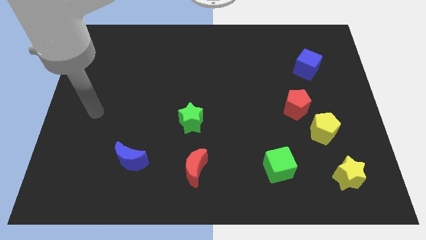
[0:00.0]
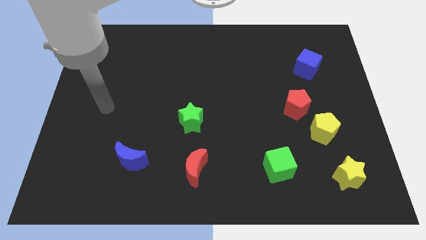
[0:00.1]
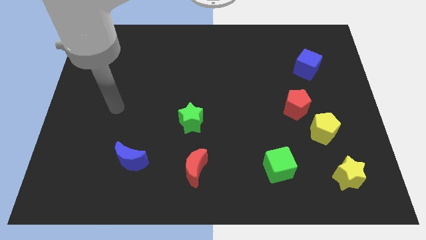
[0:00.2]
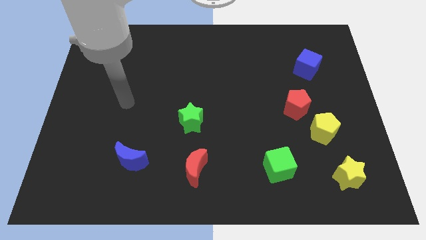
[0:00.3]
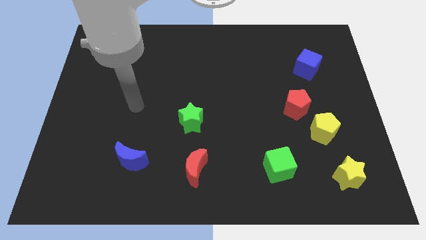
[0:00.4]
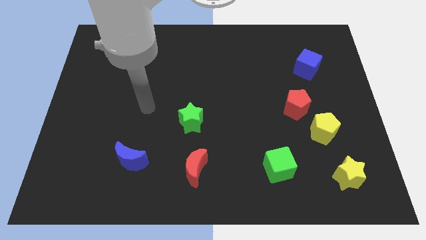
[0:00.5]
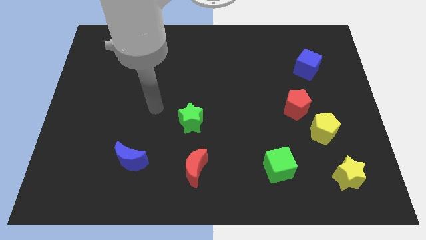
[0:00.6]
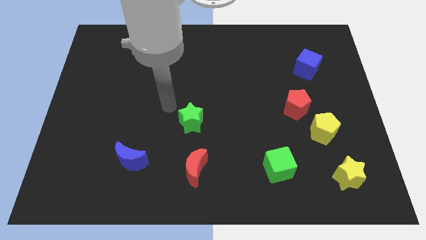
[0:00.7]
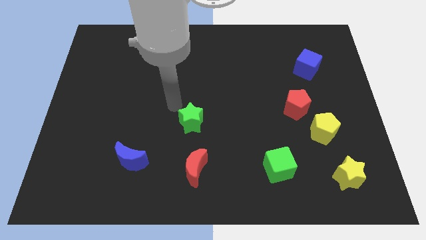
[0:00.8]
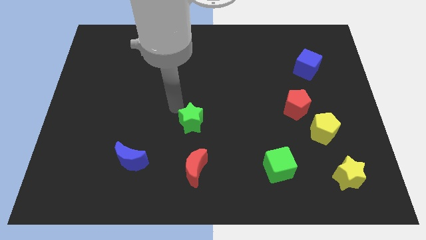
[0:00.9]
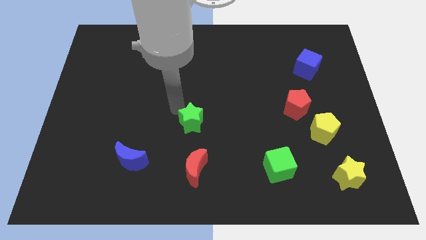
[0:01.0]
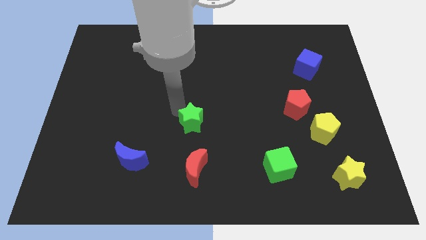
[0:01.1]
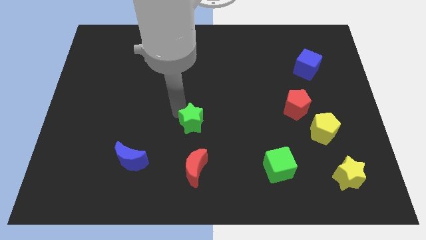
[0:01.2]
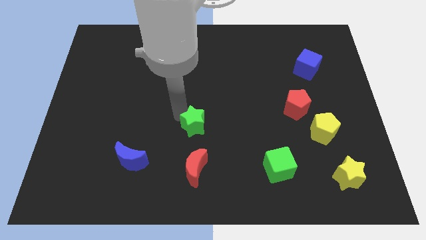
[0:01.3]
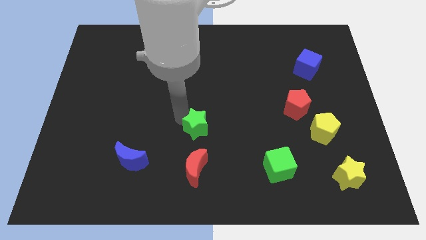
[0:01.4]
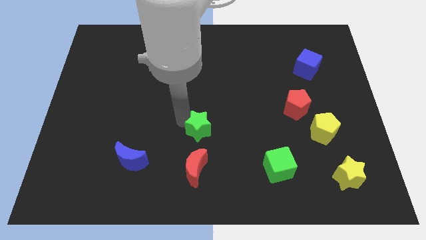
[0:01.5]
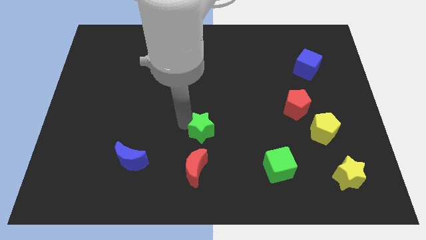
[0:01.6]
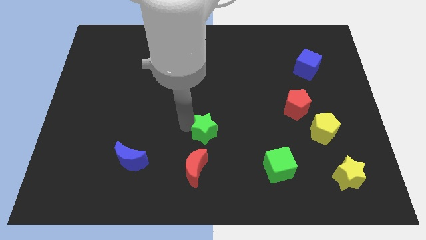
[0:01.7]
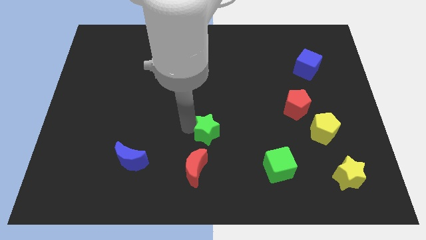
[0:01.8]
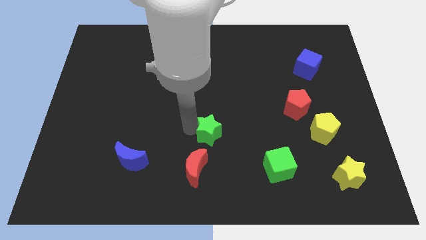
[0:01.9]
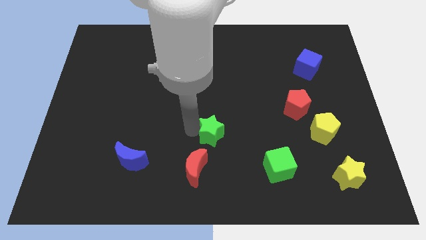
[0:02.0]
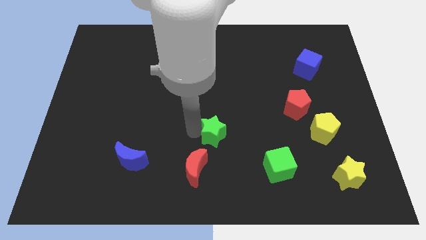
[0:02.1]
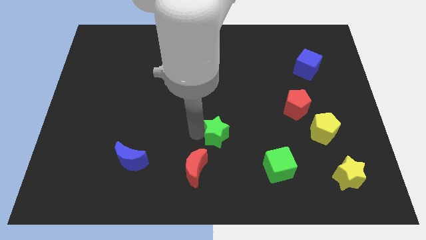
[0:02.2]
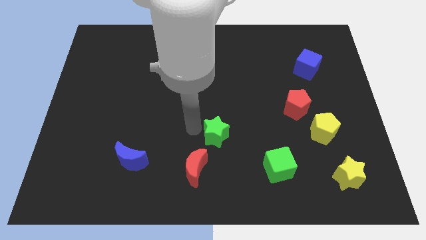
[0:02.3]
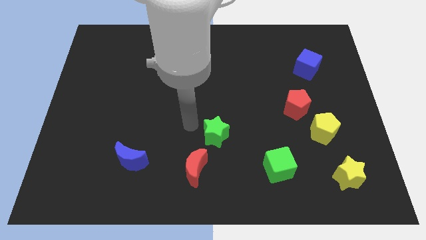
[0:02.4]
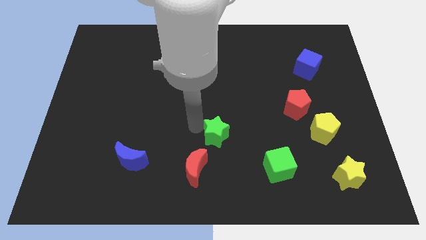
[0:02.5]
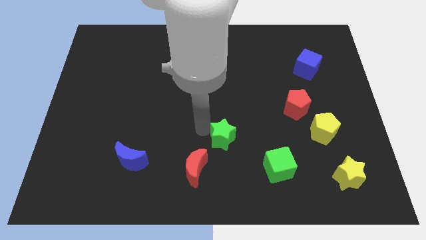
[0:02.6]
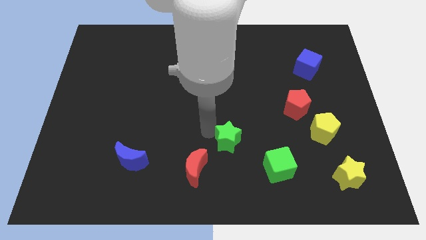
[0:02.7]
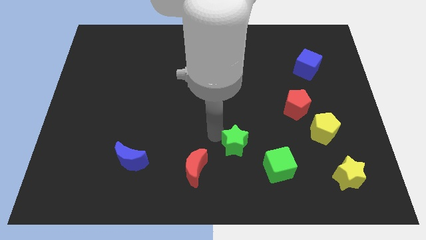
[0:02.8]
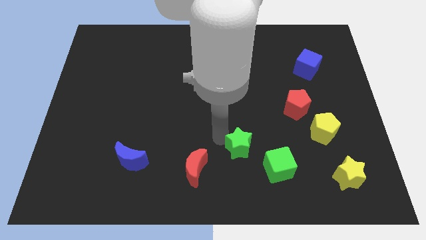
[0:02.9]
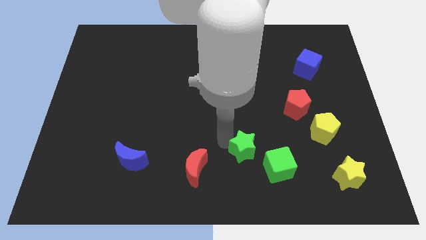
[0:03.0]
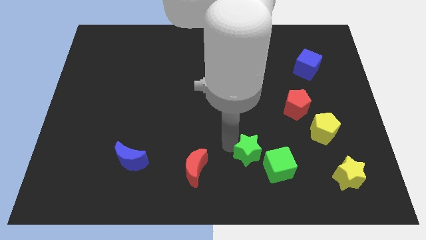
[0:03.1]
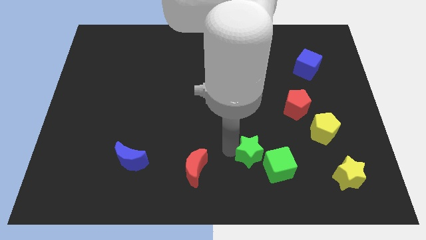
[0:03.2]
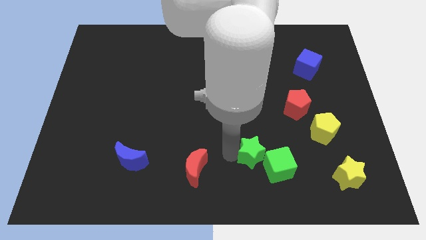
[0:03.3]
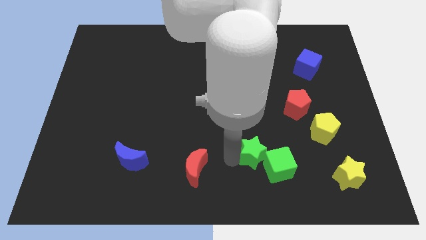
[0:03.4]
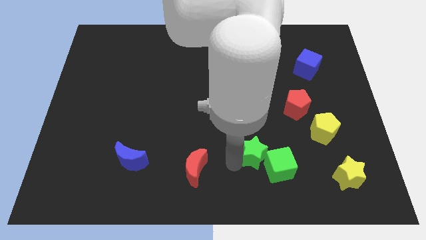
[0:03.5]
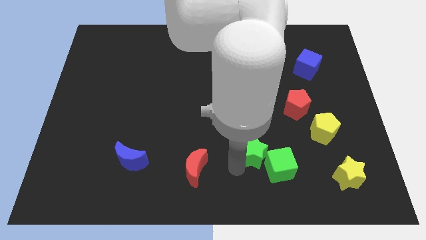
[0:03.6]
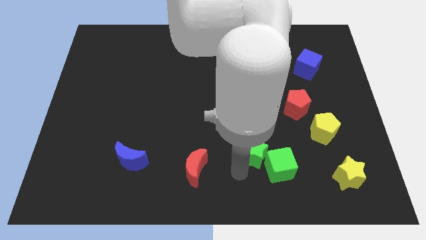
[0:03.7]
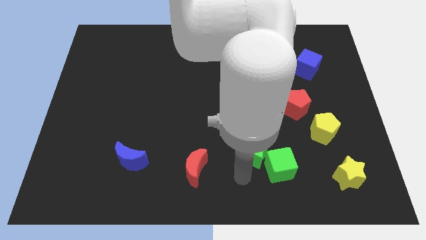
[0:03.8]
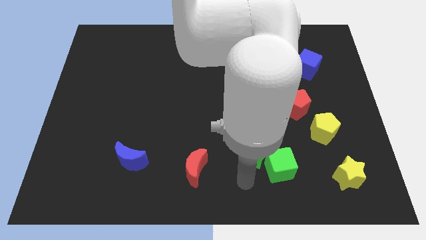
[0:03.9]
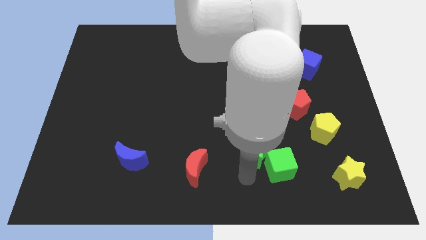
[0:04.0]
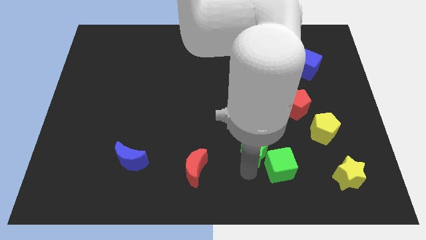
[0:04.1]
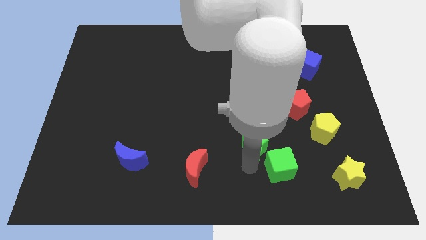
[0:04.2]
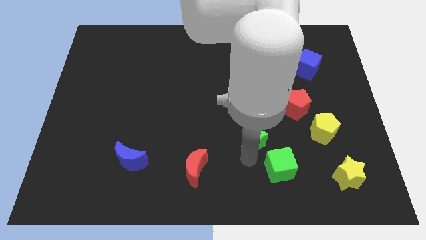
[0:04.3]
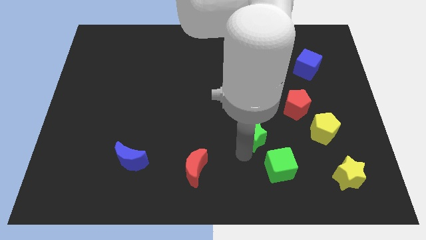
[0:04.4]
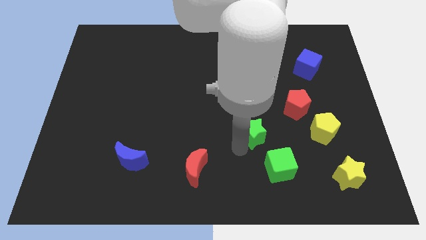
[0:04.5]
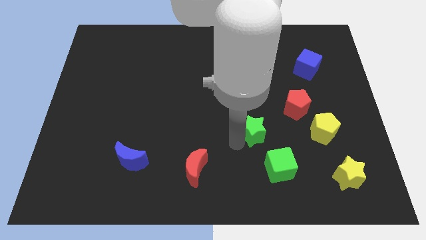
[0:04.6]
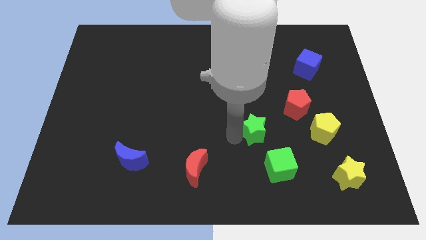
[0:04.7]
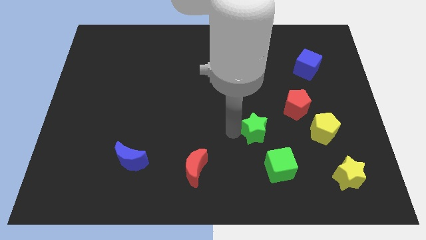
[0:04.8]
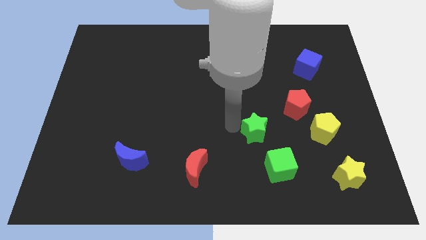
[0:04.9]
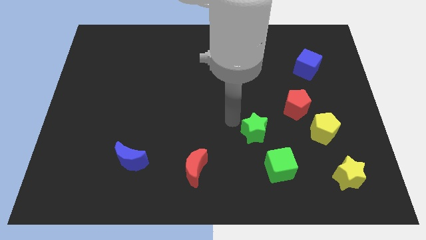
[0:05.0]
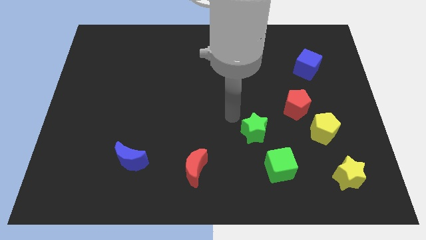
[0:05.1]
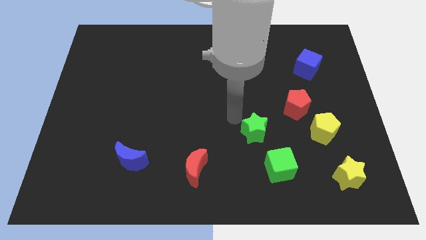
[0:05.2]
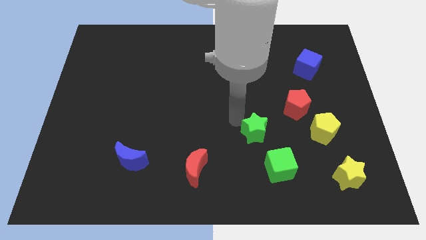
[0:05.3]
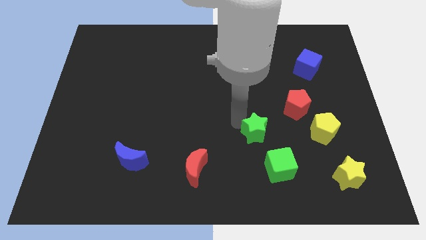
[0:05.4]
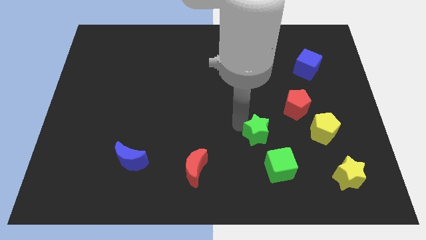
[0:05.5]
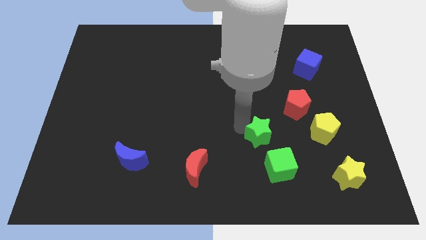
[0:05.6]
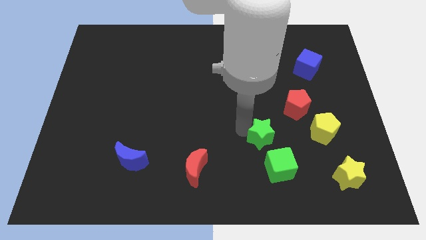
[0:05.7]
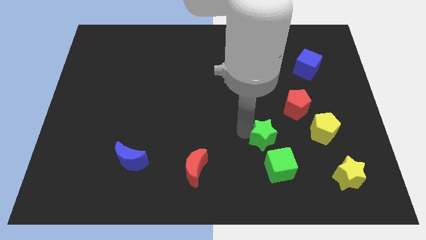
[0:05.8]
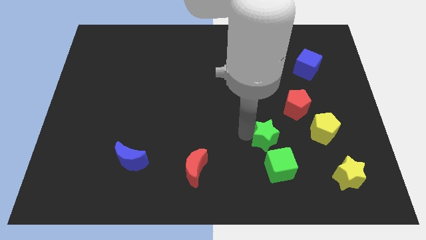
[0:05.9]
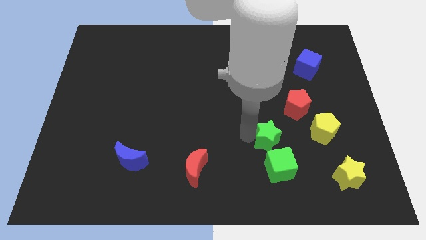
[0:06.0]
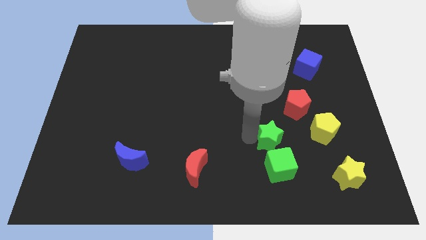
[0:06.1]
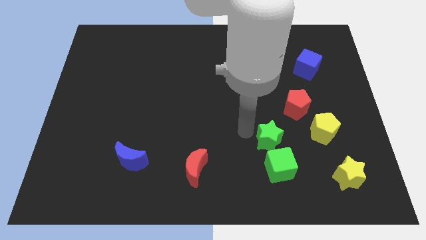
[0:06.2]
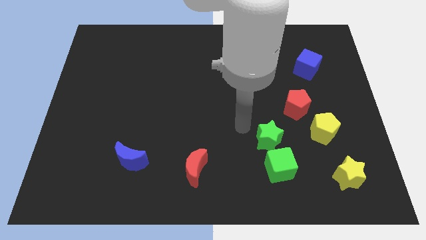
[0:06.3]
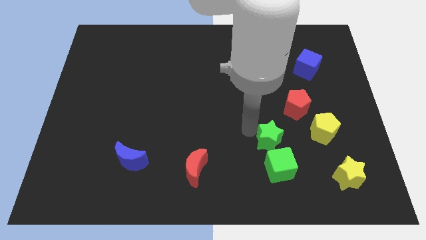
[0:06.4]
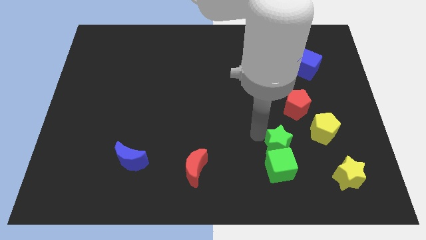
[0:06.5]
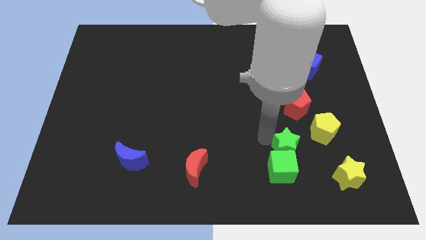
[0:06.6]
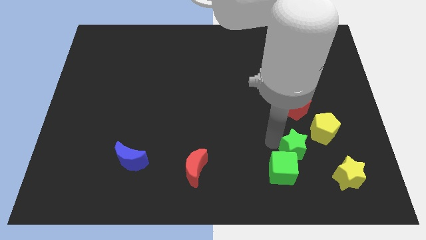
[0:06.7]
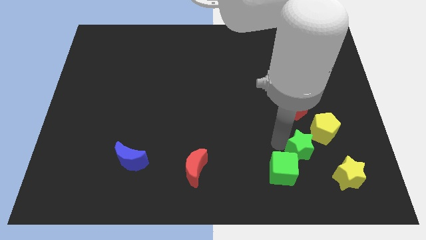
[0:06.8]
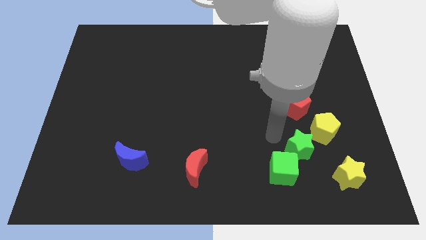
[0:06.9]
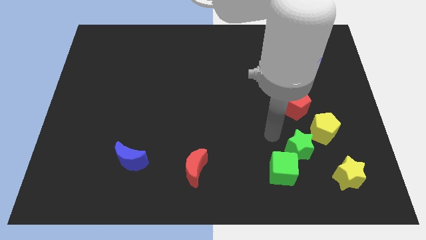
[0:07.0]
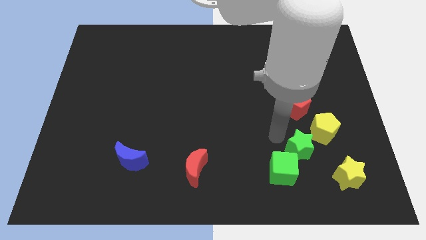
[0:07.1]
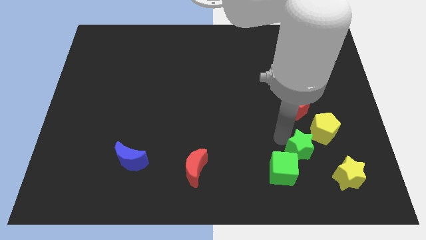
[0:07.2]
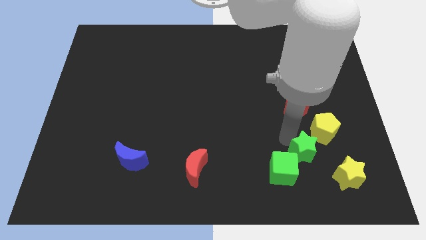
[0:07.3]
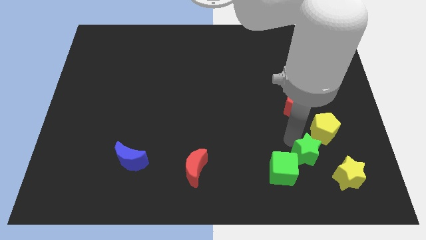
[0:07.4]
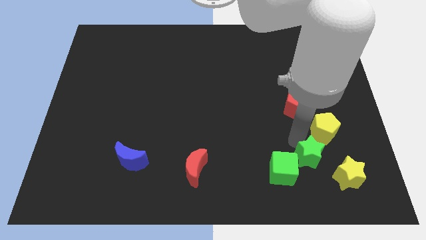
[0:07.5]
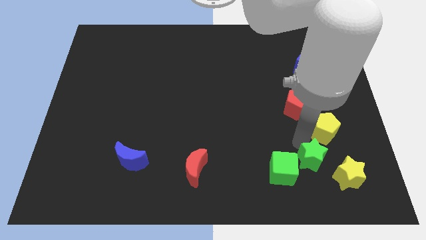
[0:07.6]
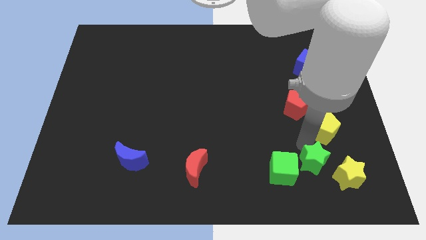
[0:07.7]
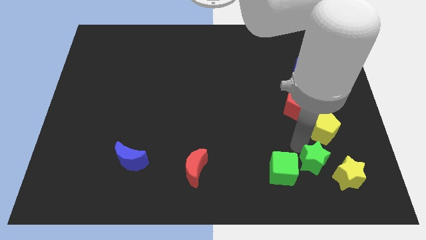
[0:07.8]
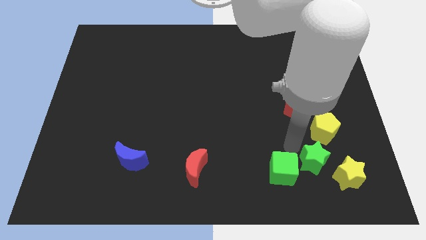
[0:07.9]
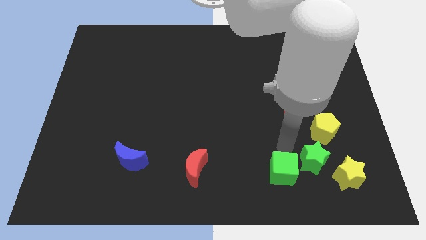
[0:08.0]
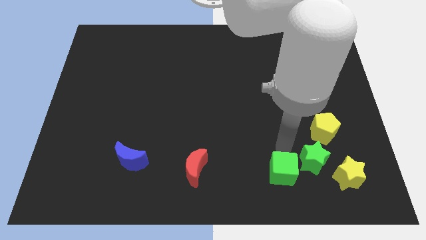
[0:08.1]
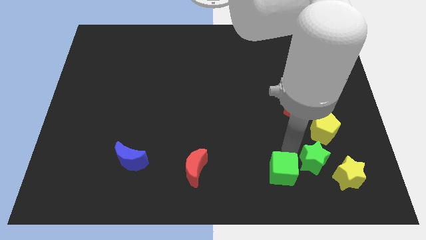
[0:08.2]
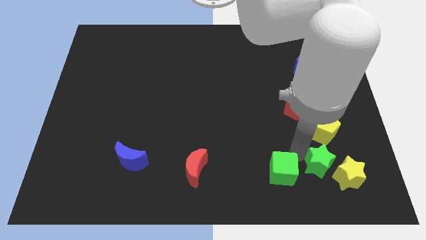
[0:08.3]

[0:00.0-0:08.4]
put the green star close to the yellow star

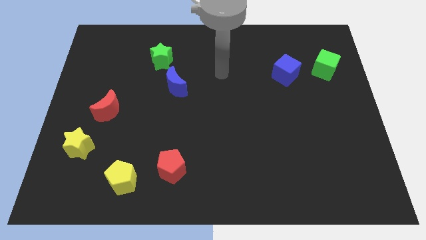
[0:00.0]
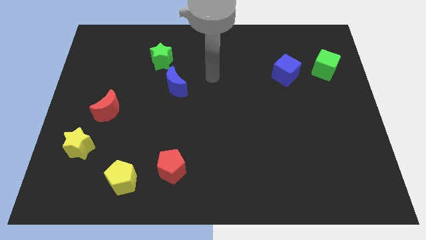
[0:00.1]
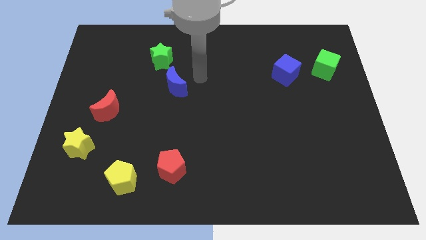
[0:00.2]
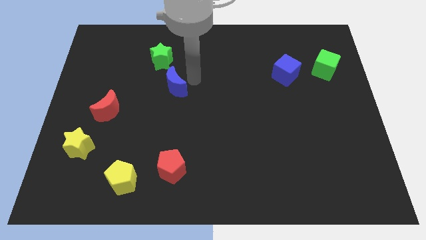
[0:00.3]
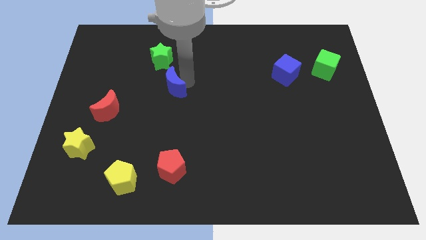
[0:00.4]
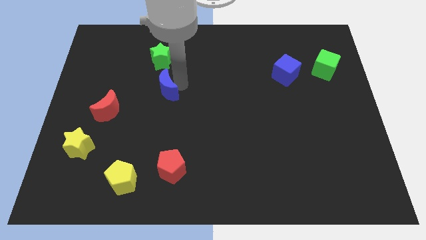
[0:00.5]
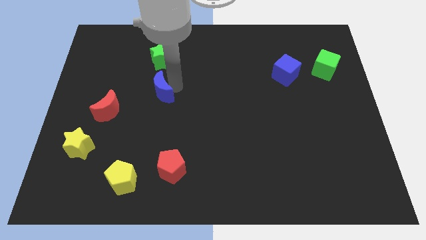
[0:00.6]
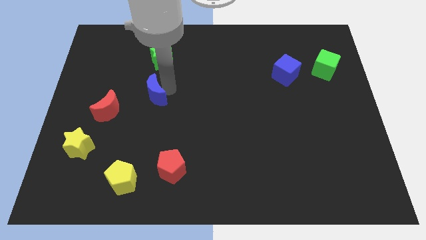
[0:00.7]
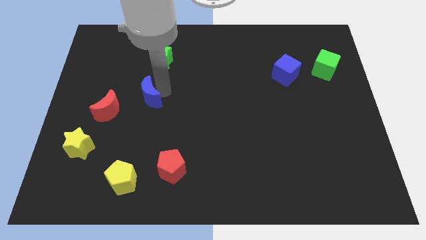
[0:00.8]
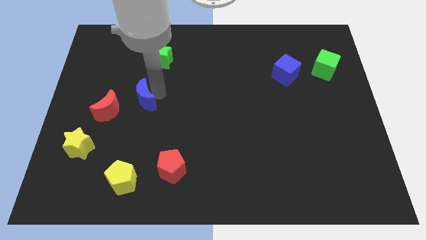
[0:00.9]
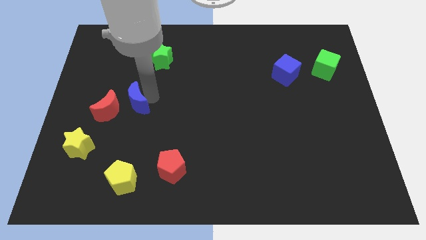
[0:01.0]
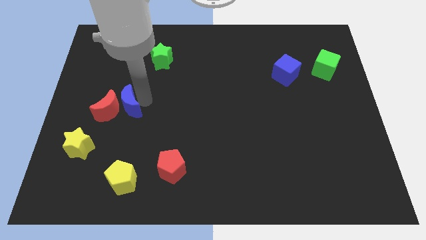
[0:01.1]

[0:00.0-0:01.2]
slide the blue moon towards the red moon
